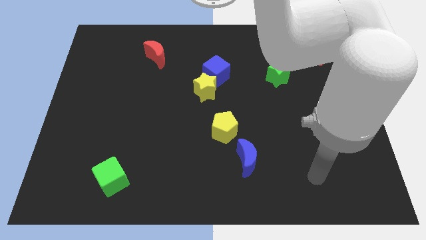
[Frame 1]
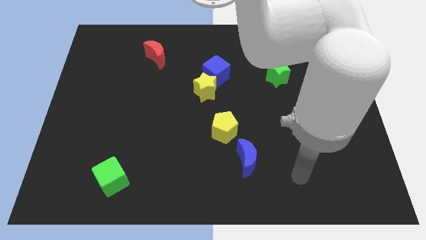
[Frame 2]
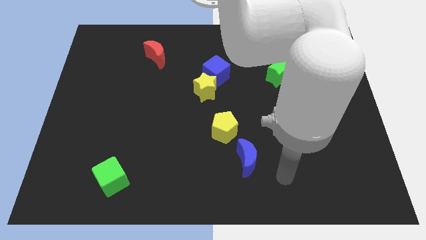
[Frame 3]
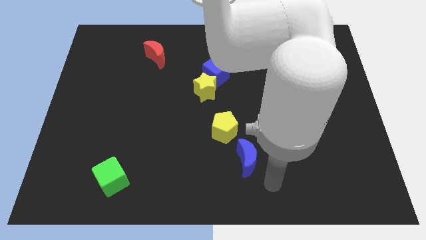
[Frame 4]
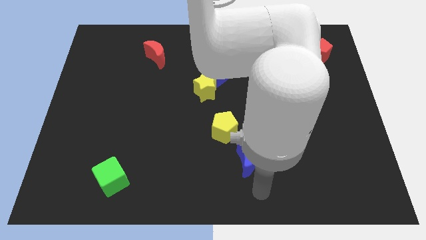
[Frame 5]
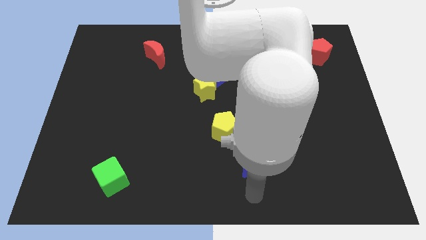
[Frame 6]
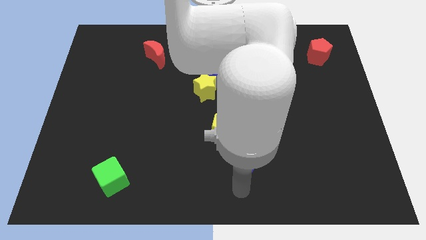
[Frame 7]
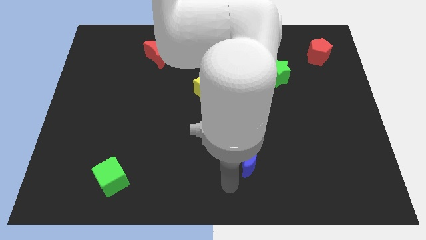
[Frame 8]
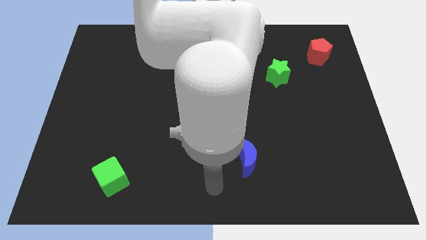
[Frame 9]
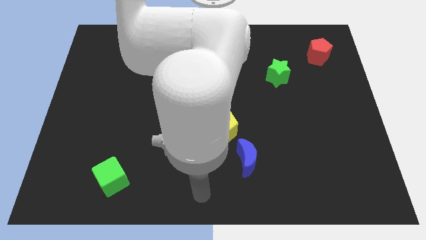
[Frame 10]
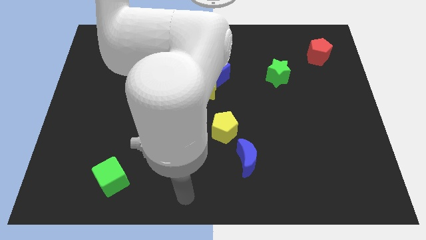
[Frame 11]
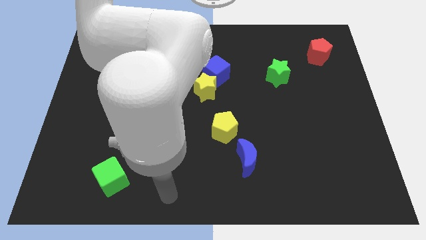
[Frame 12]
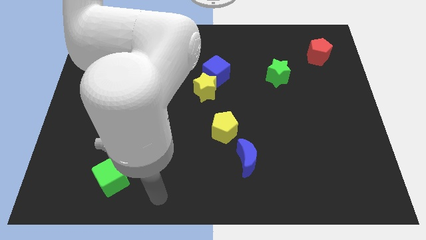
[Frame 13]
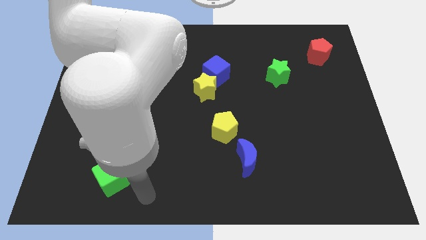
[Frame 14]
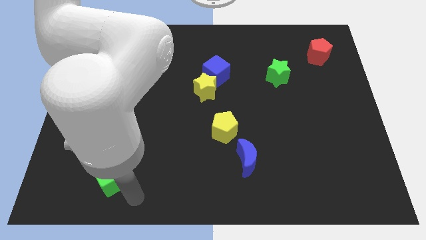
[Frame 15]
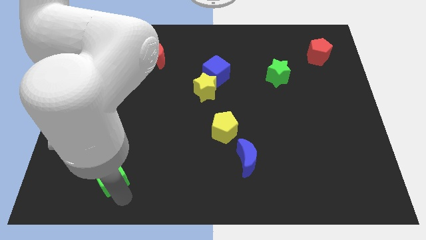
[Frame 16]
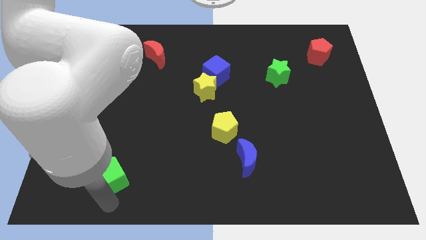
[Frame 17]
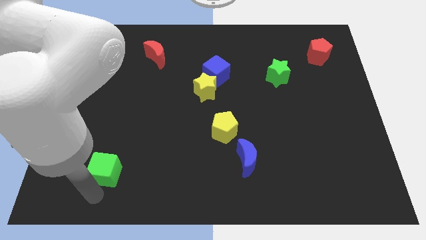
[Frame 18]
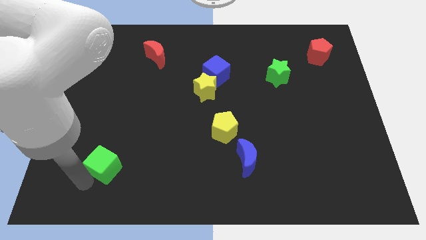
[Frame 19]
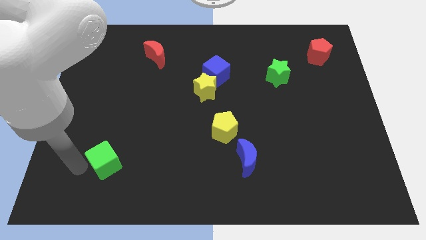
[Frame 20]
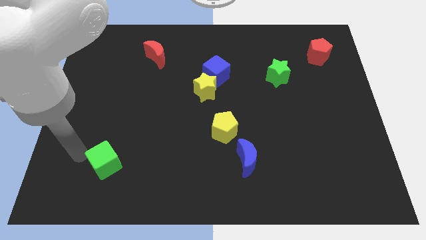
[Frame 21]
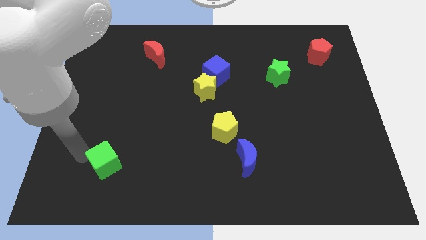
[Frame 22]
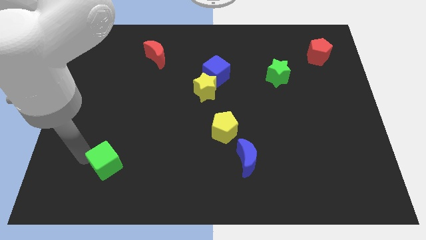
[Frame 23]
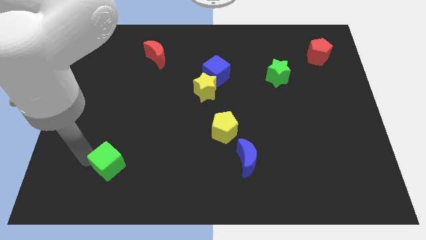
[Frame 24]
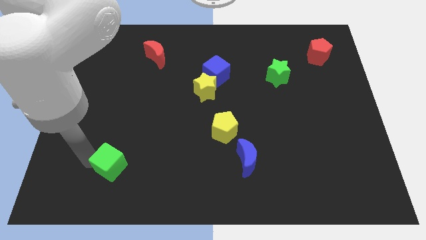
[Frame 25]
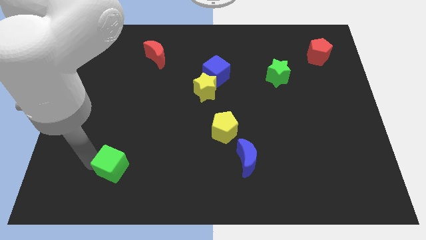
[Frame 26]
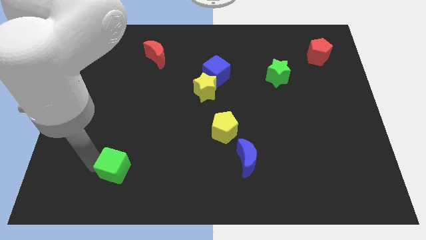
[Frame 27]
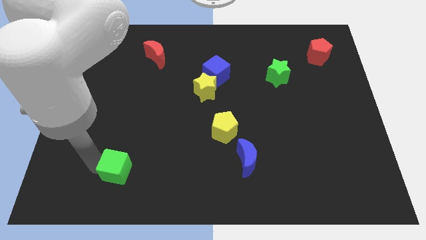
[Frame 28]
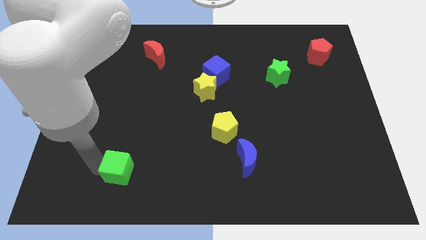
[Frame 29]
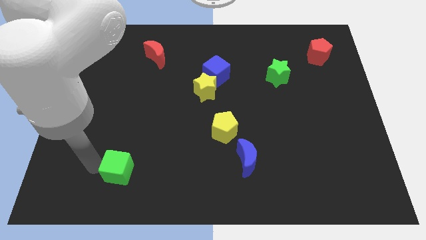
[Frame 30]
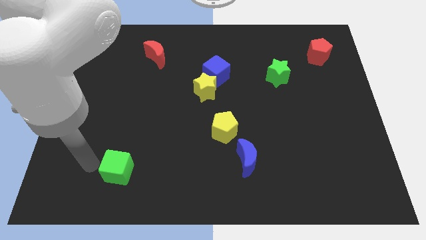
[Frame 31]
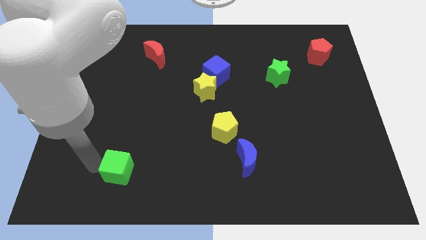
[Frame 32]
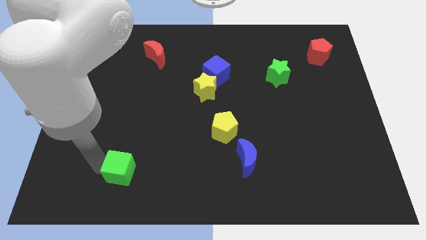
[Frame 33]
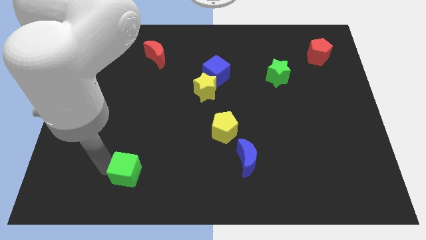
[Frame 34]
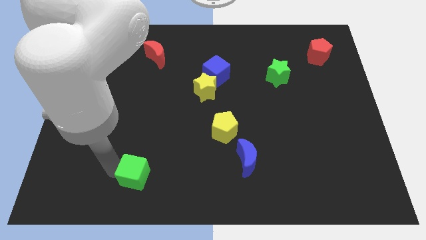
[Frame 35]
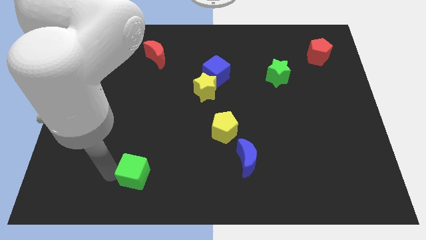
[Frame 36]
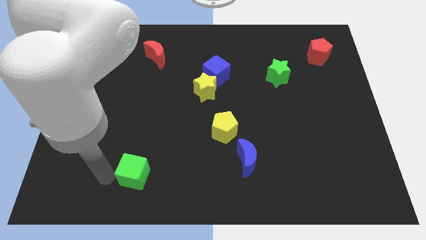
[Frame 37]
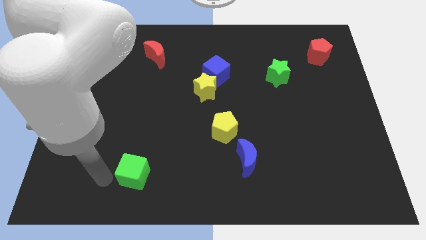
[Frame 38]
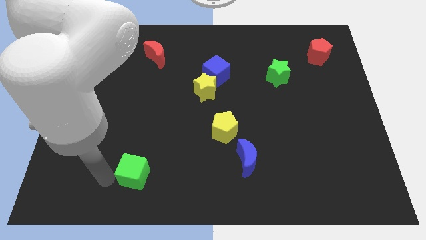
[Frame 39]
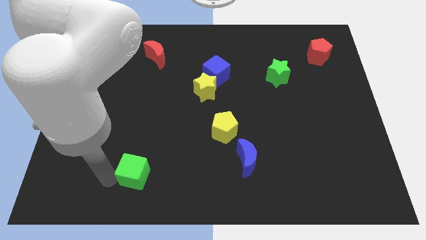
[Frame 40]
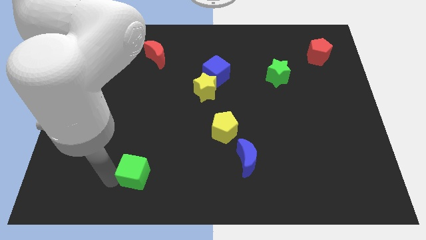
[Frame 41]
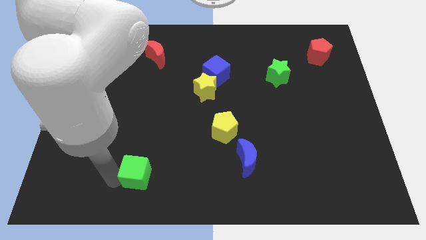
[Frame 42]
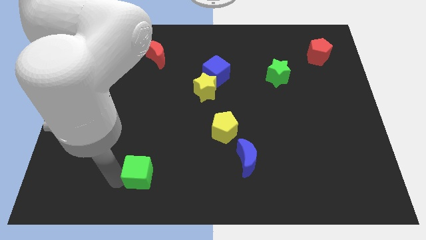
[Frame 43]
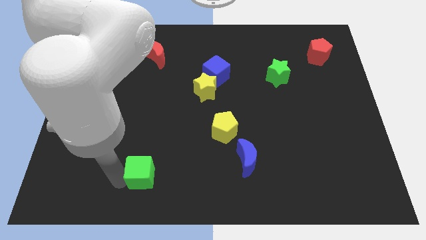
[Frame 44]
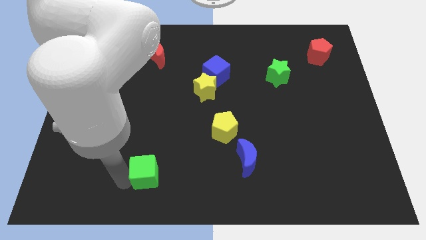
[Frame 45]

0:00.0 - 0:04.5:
slightly push the green cube right

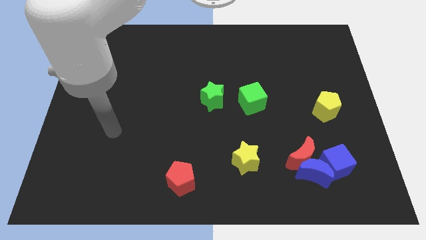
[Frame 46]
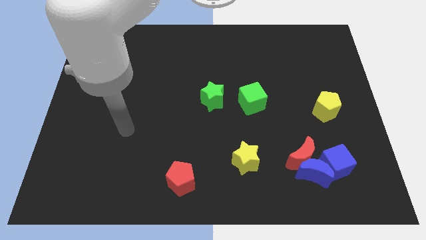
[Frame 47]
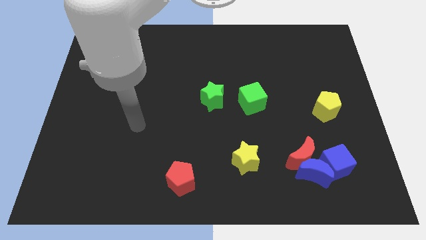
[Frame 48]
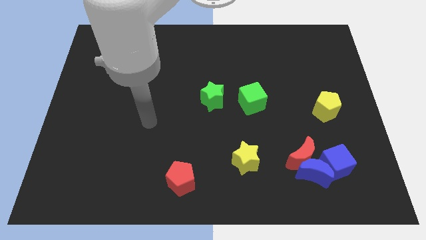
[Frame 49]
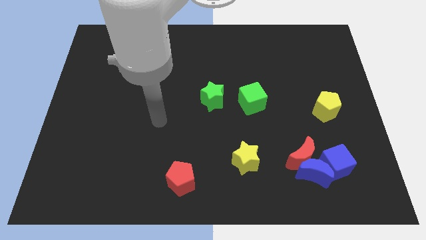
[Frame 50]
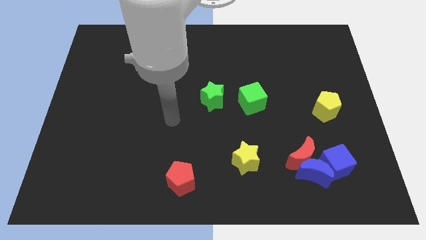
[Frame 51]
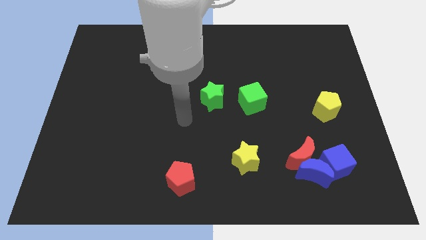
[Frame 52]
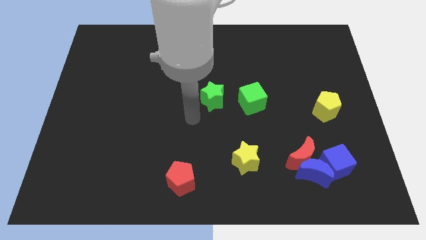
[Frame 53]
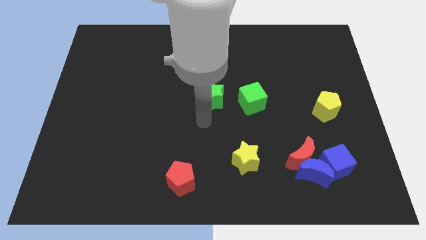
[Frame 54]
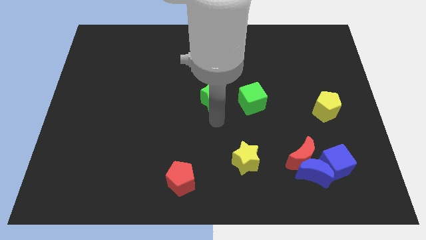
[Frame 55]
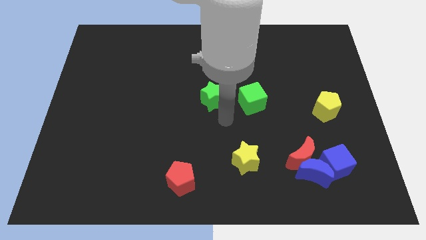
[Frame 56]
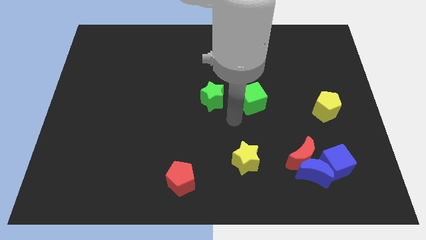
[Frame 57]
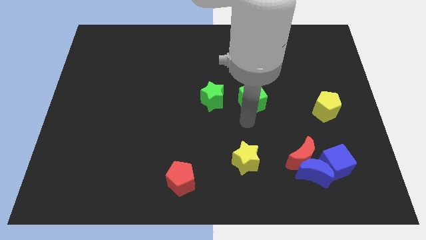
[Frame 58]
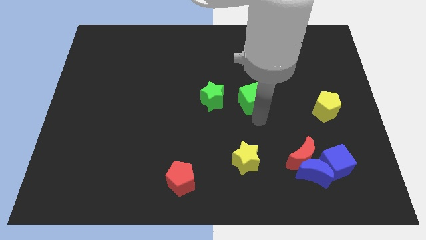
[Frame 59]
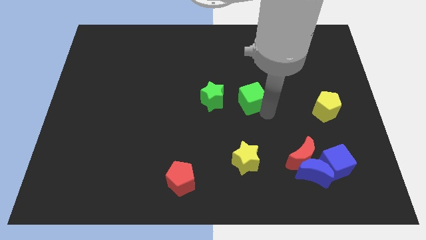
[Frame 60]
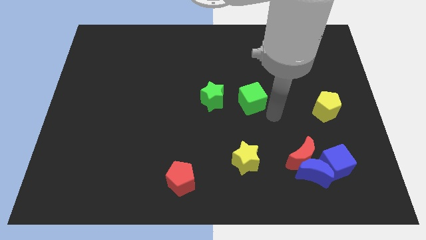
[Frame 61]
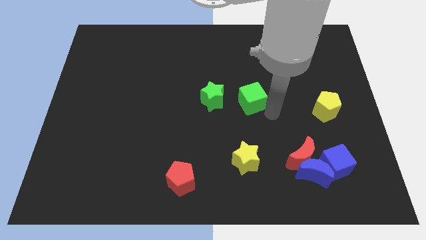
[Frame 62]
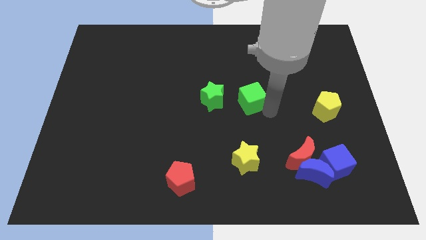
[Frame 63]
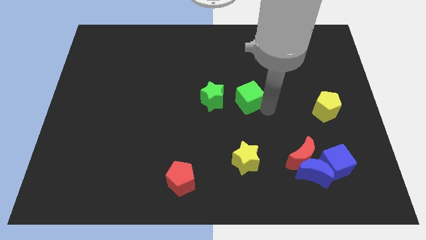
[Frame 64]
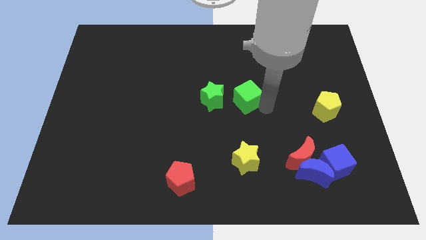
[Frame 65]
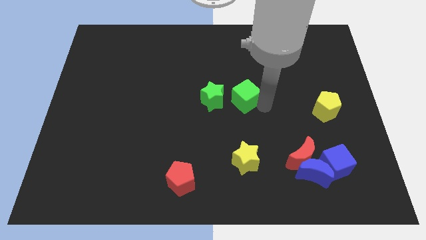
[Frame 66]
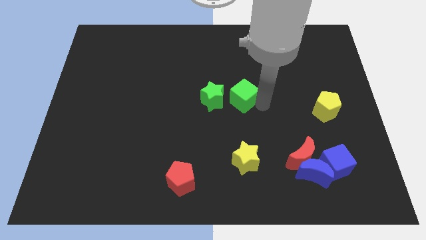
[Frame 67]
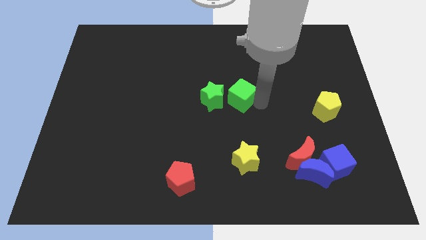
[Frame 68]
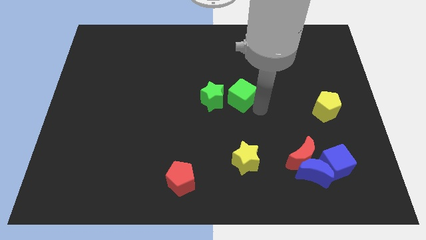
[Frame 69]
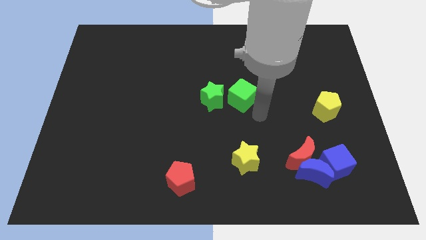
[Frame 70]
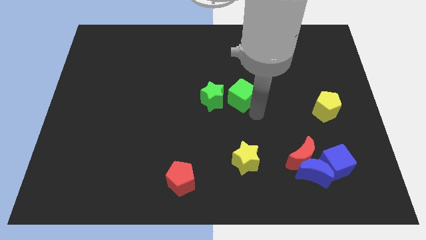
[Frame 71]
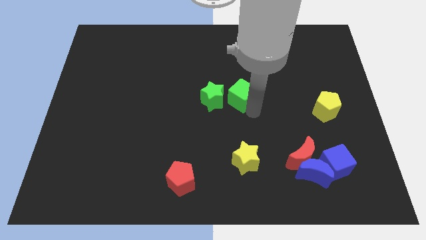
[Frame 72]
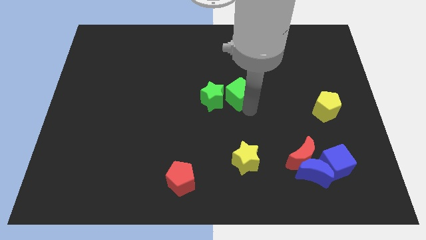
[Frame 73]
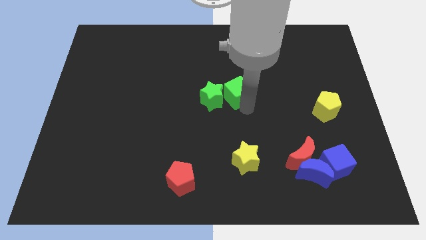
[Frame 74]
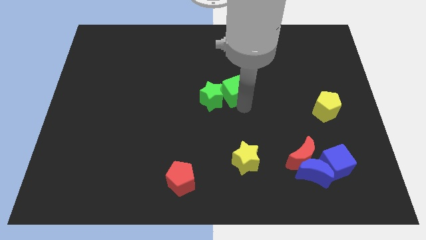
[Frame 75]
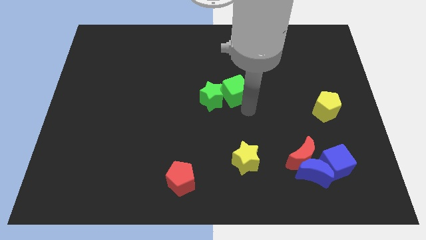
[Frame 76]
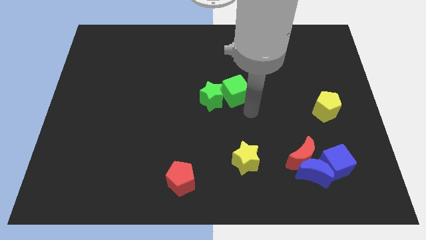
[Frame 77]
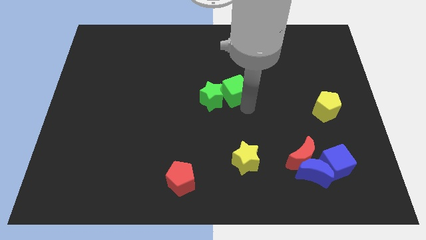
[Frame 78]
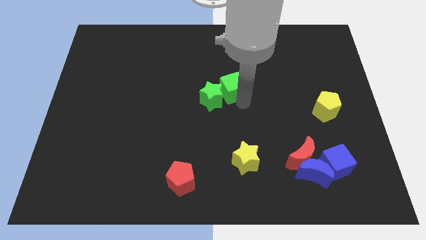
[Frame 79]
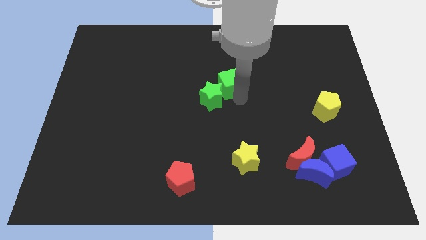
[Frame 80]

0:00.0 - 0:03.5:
move the green cube a little diagonally up and left
